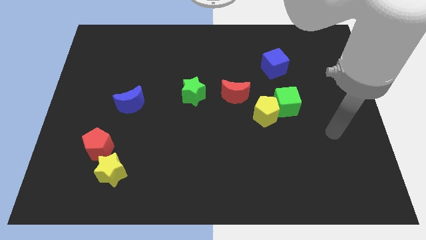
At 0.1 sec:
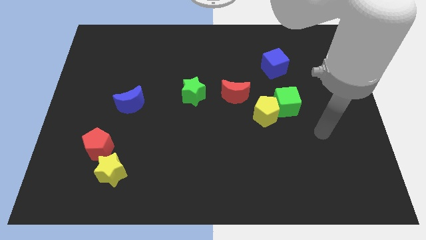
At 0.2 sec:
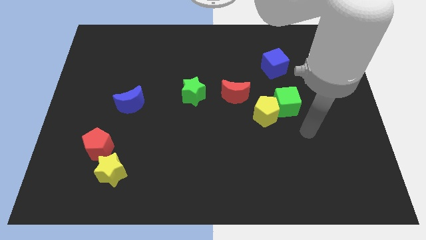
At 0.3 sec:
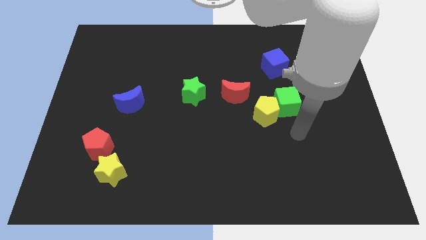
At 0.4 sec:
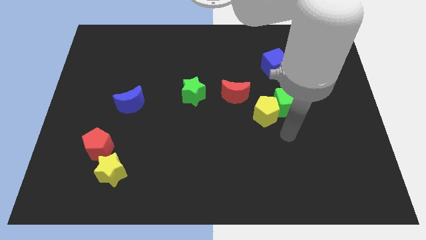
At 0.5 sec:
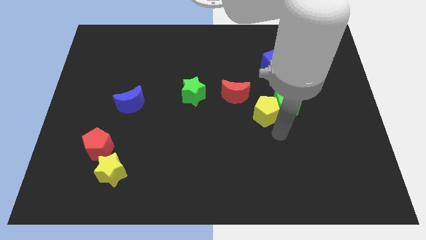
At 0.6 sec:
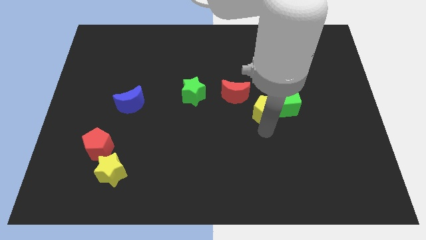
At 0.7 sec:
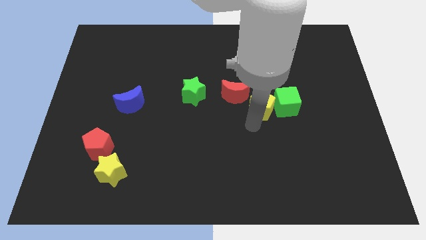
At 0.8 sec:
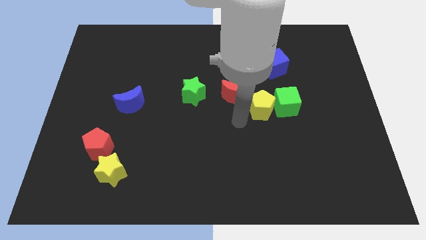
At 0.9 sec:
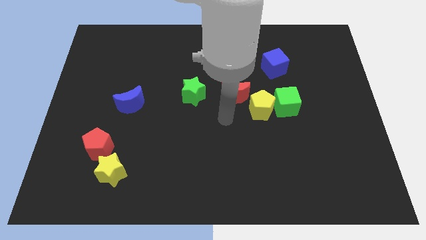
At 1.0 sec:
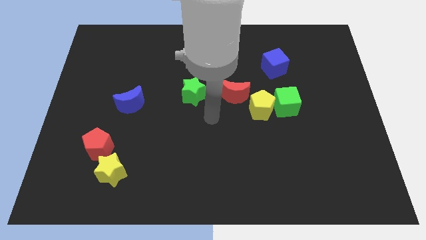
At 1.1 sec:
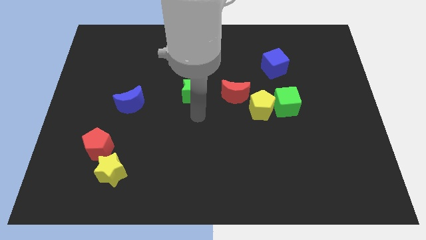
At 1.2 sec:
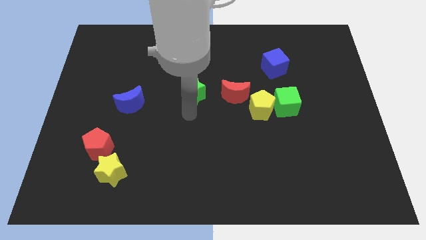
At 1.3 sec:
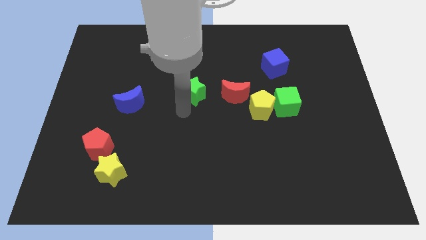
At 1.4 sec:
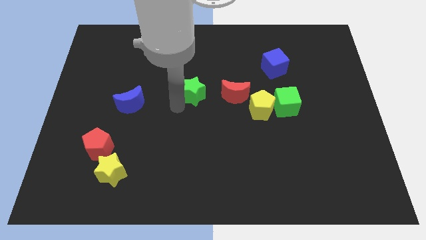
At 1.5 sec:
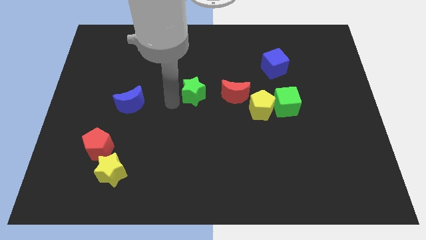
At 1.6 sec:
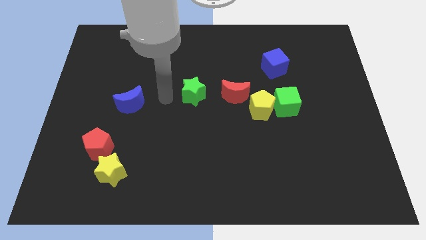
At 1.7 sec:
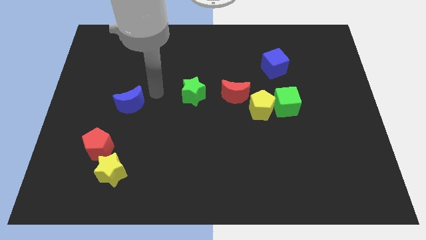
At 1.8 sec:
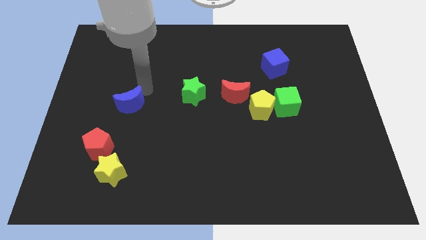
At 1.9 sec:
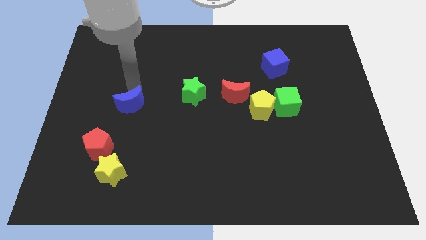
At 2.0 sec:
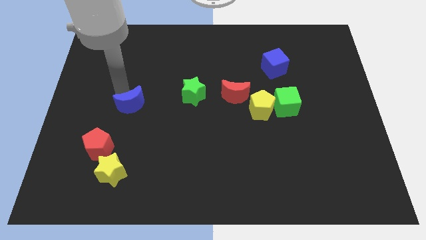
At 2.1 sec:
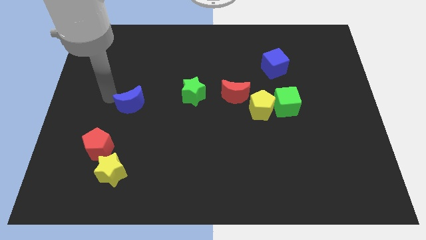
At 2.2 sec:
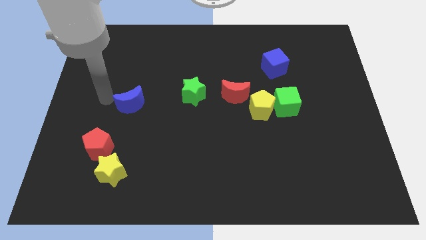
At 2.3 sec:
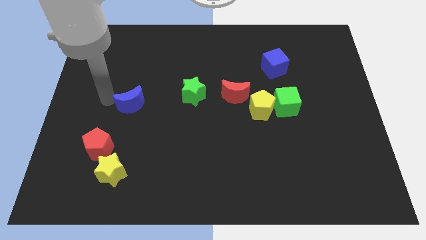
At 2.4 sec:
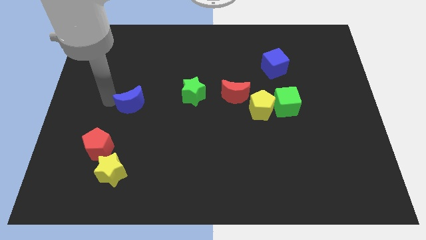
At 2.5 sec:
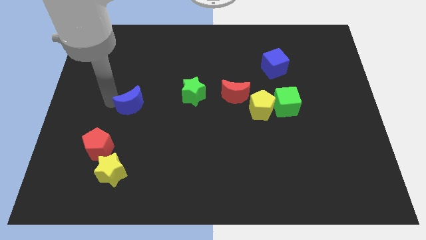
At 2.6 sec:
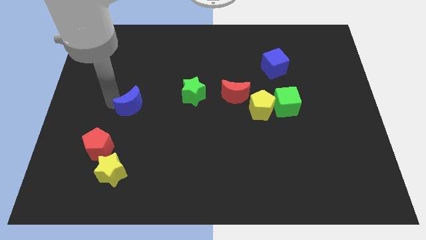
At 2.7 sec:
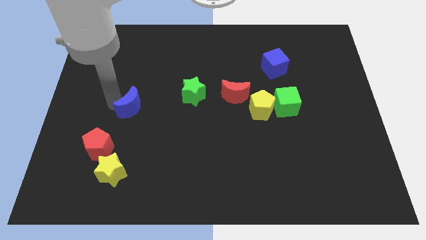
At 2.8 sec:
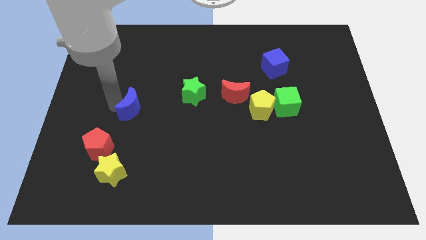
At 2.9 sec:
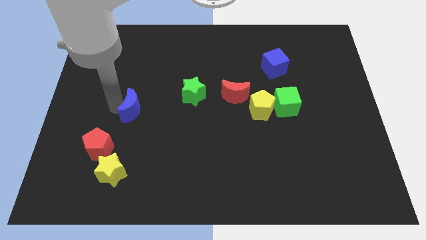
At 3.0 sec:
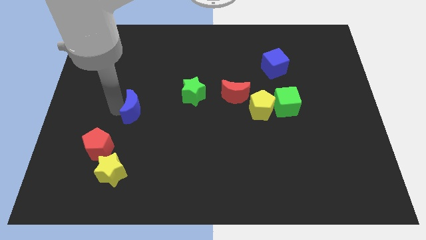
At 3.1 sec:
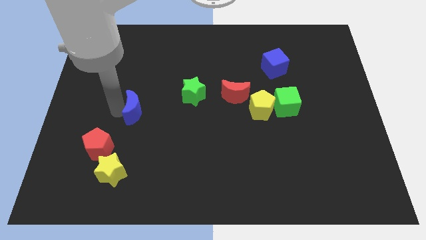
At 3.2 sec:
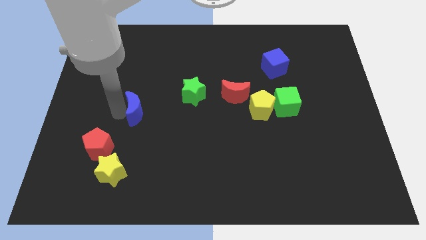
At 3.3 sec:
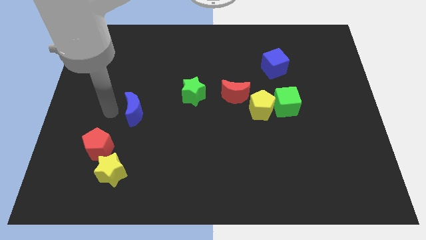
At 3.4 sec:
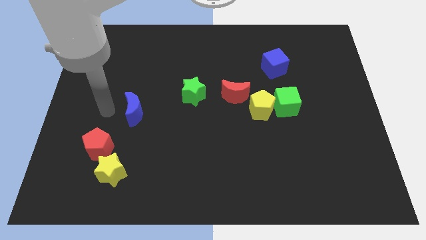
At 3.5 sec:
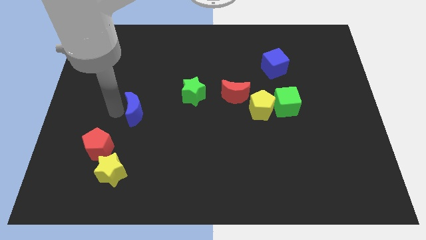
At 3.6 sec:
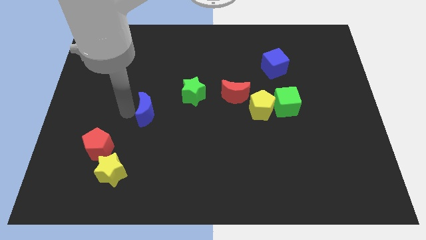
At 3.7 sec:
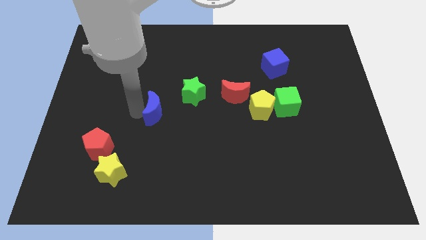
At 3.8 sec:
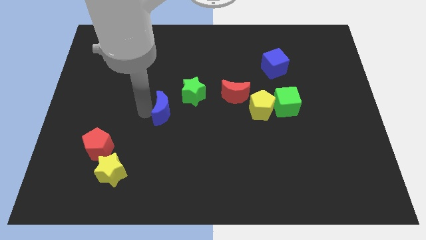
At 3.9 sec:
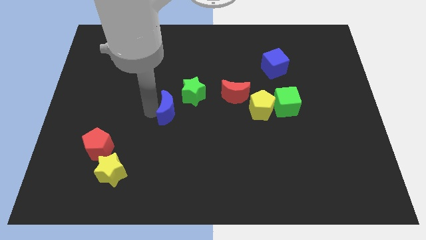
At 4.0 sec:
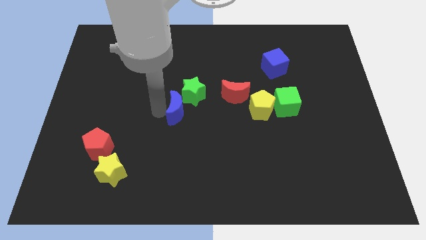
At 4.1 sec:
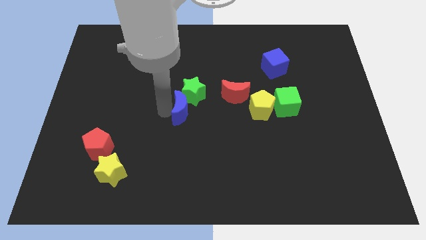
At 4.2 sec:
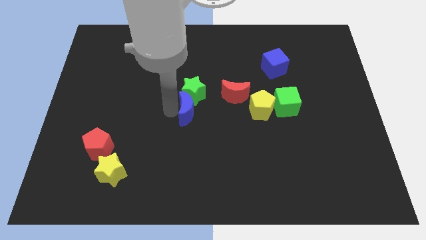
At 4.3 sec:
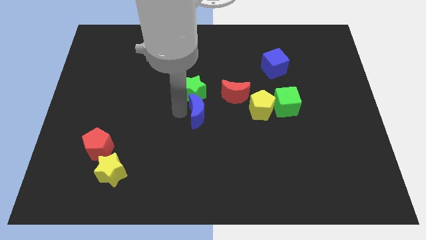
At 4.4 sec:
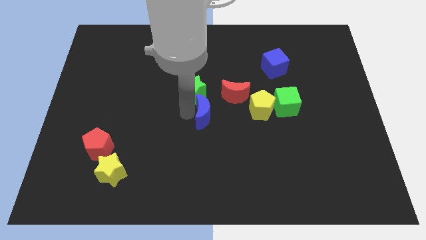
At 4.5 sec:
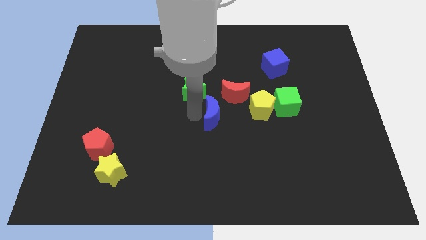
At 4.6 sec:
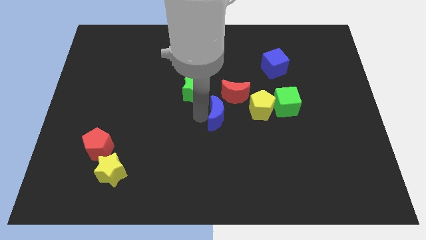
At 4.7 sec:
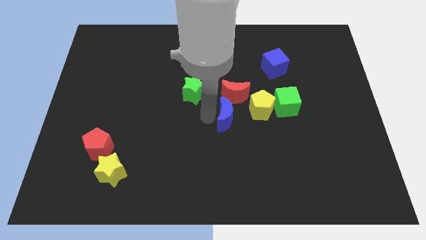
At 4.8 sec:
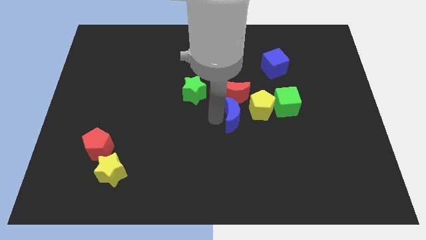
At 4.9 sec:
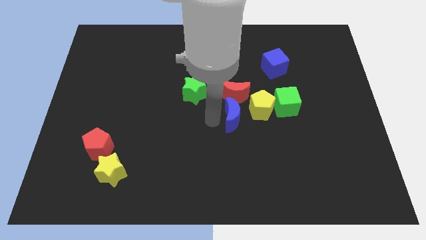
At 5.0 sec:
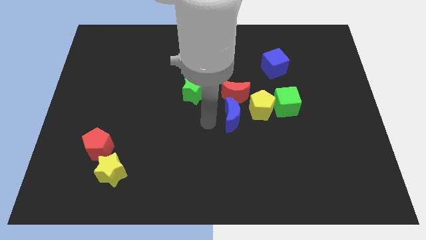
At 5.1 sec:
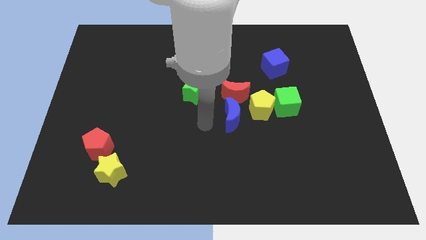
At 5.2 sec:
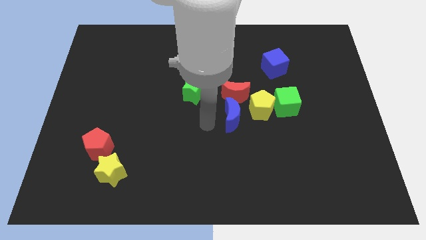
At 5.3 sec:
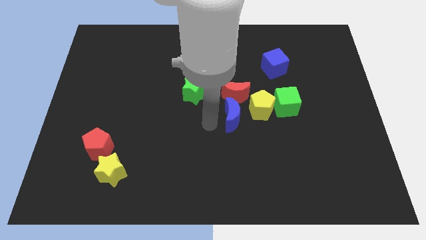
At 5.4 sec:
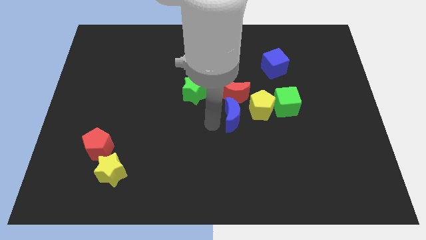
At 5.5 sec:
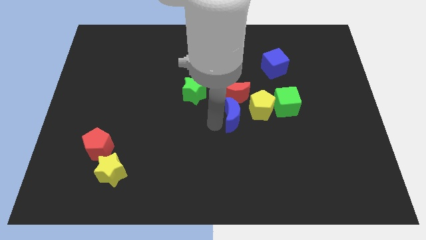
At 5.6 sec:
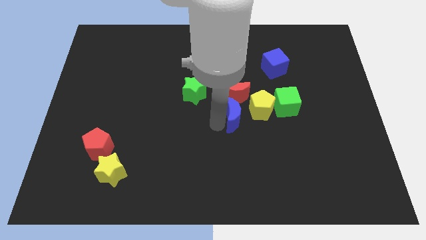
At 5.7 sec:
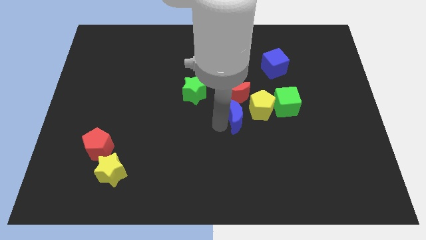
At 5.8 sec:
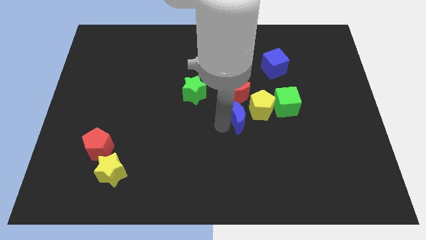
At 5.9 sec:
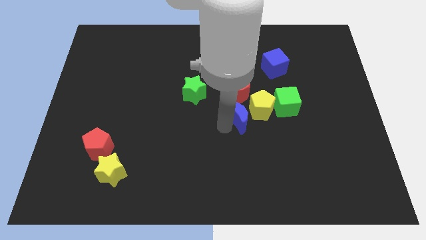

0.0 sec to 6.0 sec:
push the blue moon towards the yellow pentagon

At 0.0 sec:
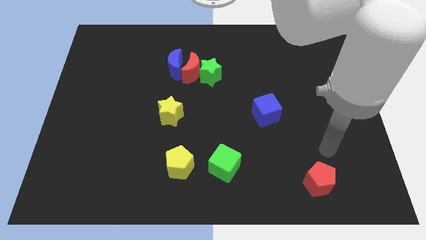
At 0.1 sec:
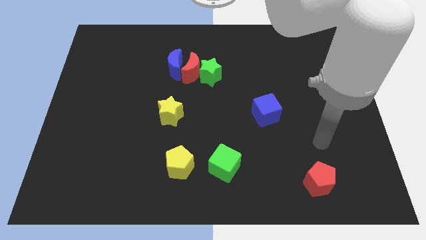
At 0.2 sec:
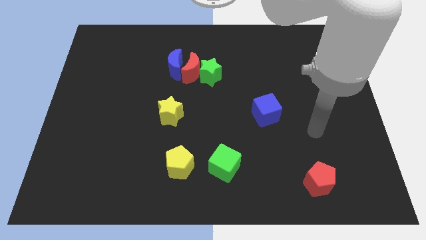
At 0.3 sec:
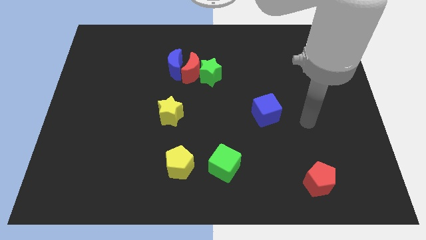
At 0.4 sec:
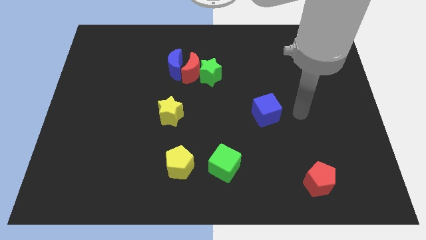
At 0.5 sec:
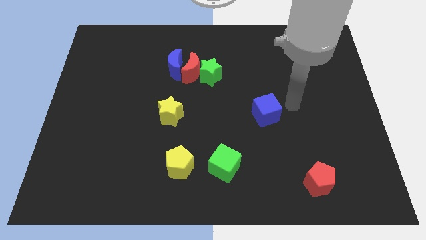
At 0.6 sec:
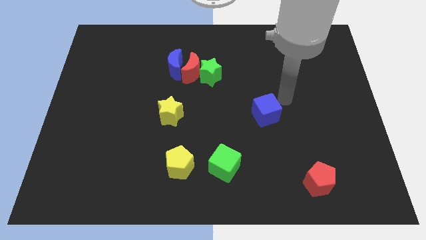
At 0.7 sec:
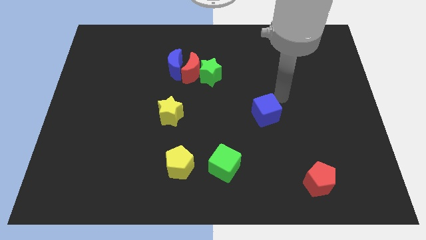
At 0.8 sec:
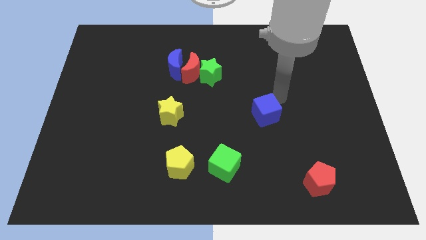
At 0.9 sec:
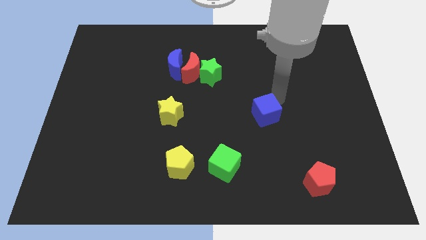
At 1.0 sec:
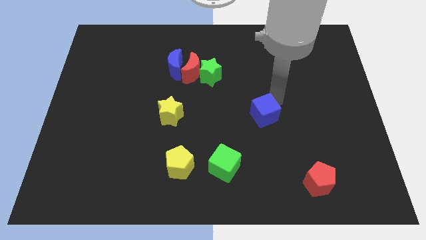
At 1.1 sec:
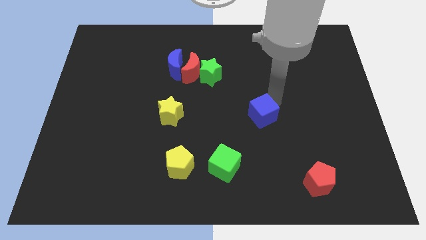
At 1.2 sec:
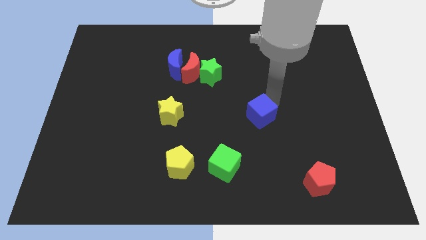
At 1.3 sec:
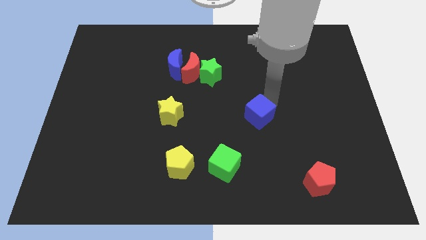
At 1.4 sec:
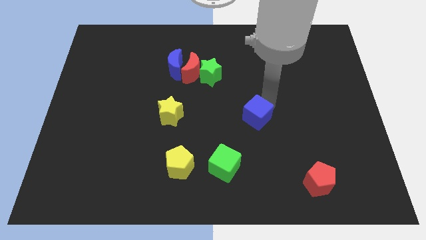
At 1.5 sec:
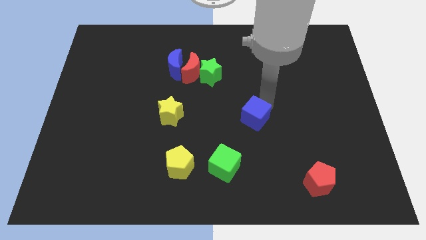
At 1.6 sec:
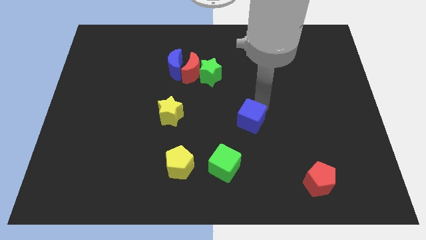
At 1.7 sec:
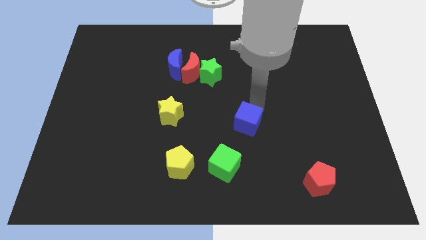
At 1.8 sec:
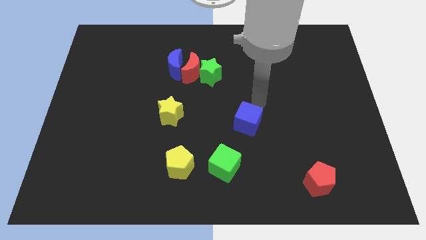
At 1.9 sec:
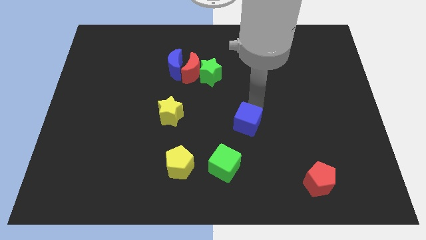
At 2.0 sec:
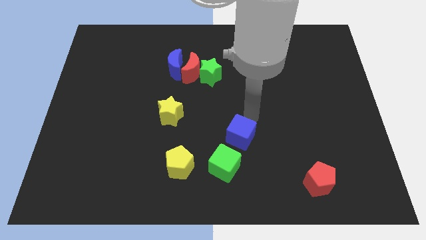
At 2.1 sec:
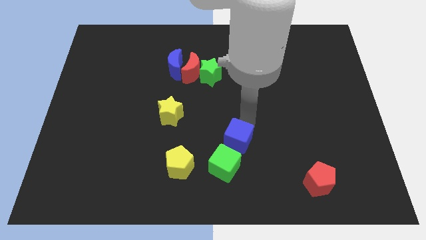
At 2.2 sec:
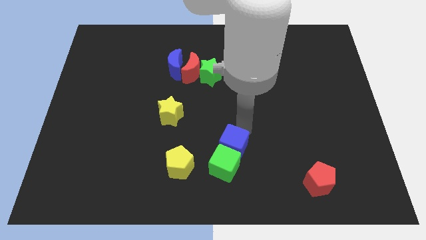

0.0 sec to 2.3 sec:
slide the blue cube next to the green cube
